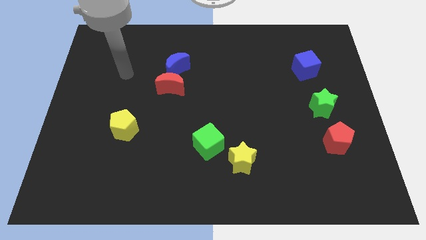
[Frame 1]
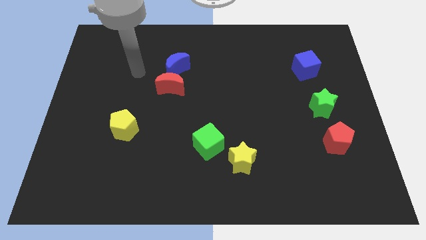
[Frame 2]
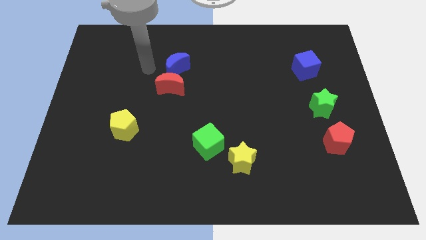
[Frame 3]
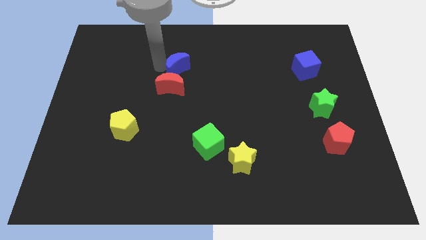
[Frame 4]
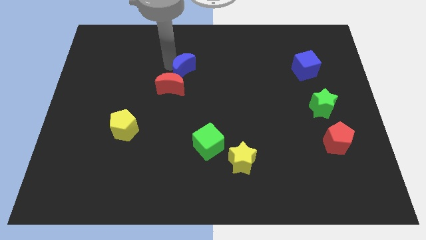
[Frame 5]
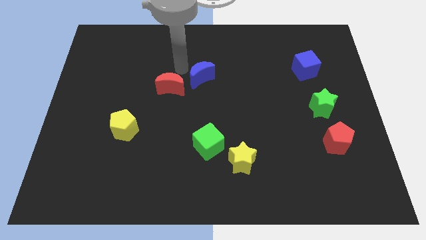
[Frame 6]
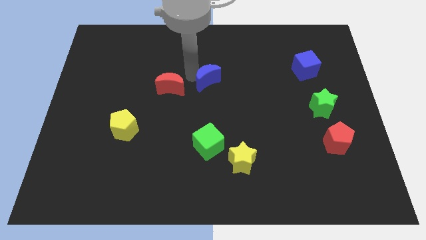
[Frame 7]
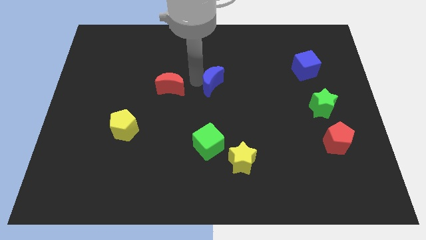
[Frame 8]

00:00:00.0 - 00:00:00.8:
separate the red moon from the blue moon

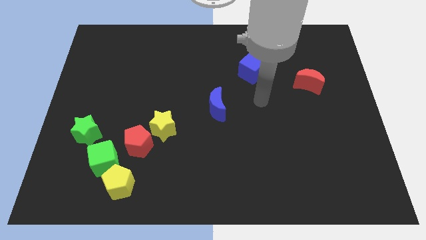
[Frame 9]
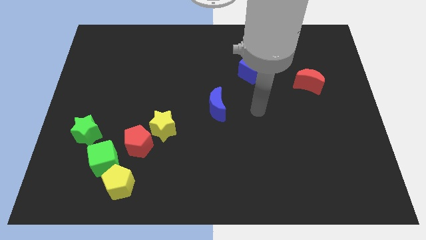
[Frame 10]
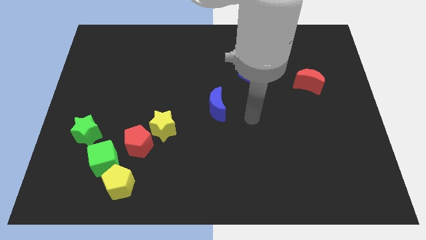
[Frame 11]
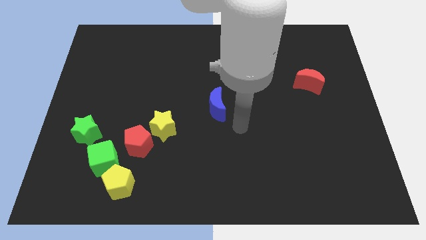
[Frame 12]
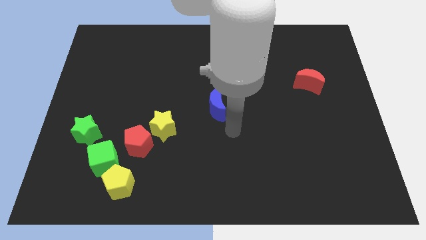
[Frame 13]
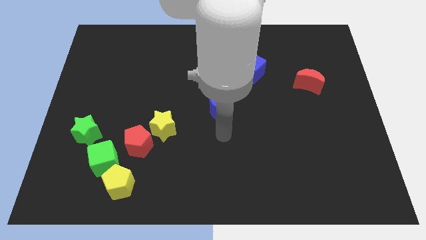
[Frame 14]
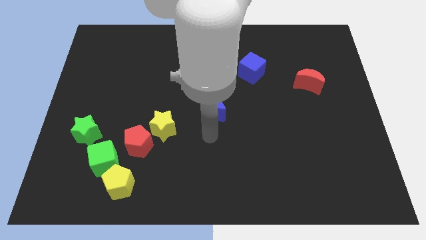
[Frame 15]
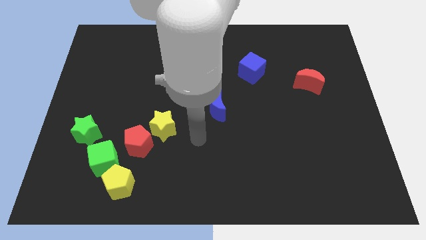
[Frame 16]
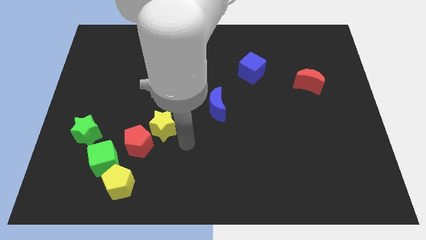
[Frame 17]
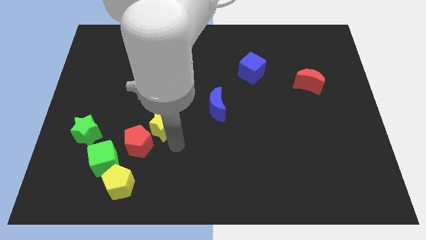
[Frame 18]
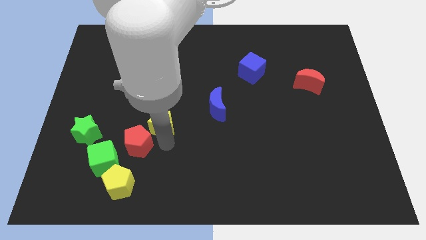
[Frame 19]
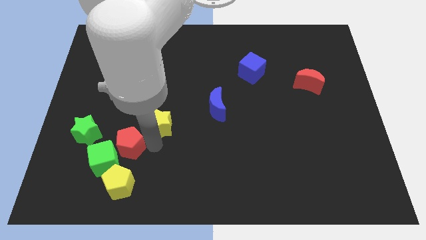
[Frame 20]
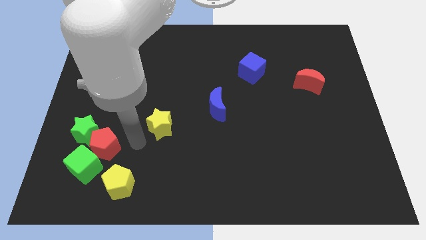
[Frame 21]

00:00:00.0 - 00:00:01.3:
pull the yellow star apart from the red pentagon

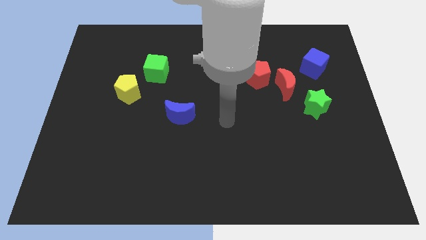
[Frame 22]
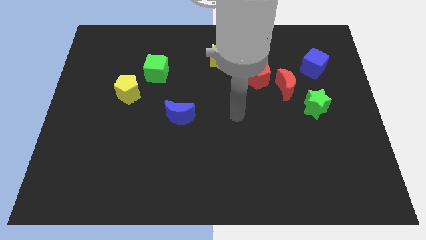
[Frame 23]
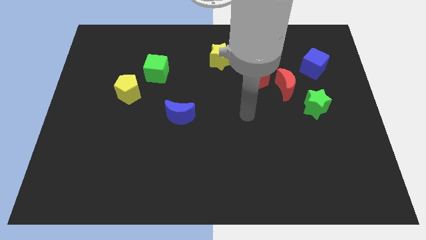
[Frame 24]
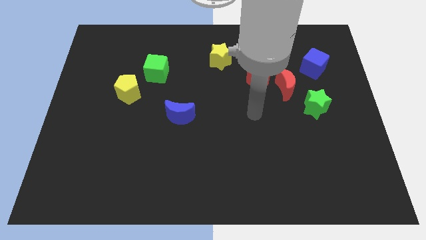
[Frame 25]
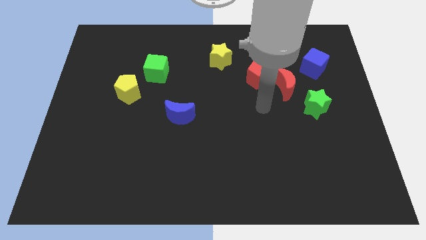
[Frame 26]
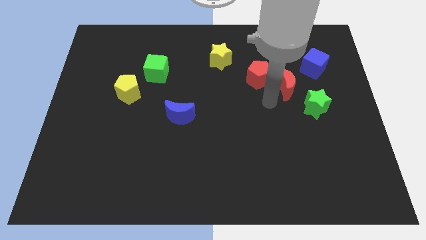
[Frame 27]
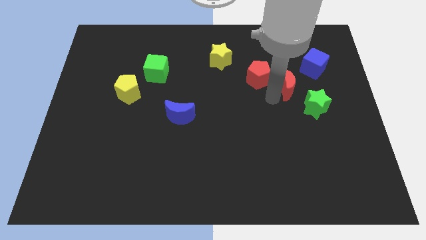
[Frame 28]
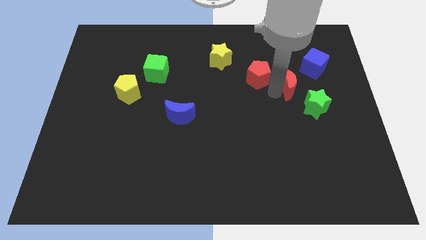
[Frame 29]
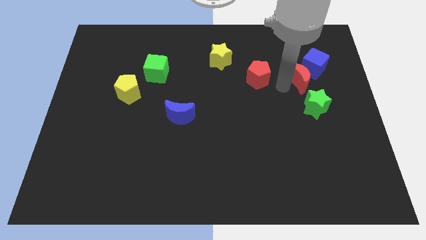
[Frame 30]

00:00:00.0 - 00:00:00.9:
pull the red pentagon apart from the red moon

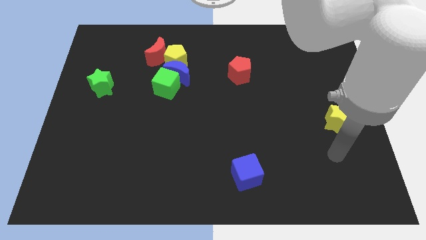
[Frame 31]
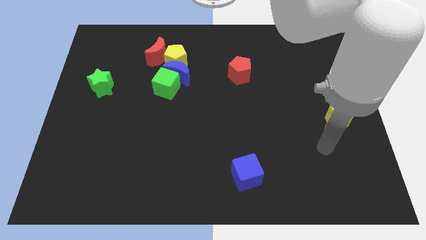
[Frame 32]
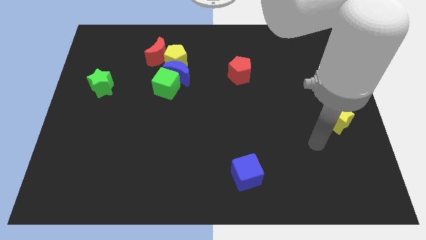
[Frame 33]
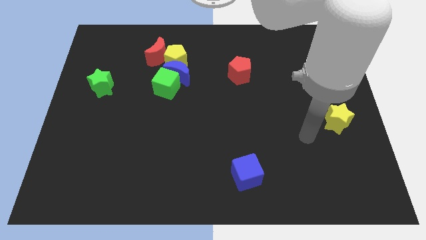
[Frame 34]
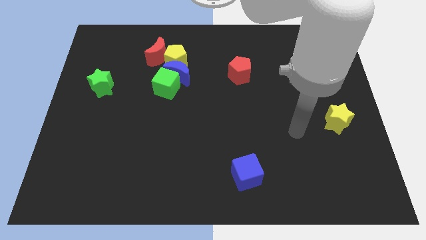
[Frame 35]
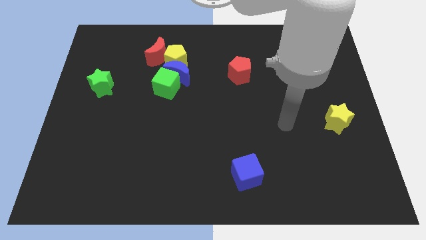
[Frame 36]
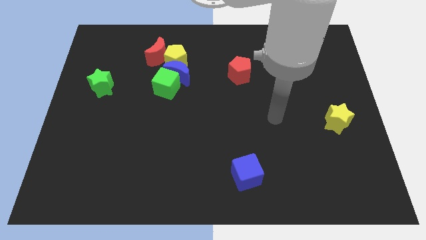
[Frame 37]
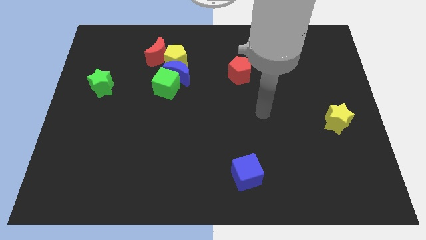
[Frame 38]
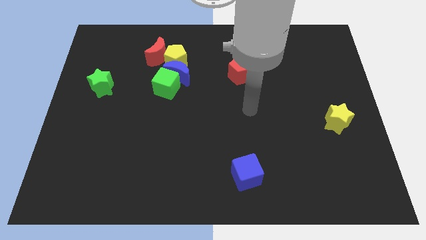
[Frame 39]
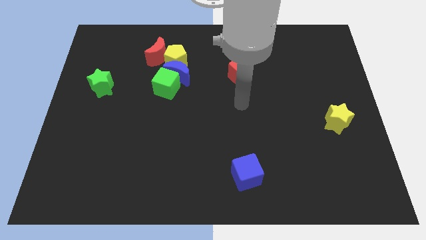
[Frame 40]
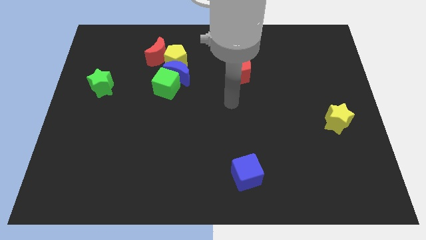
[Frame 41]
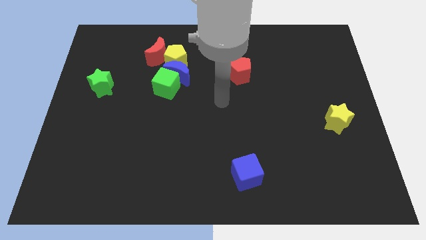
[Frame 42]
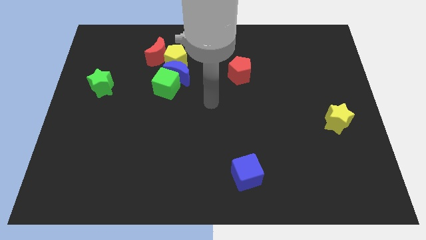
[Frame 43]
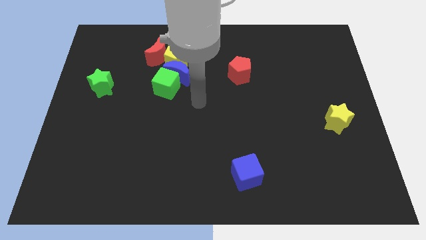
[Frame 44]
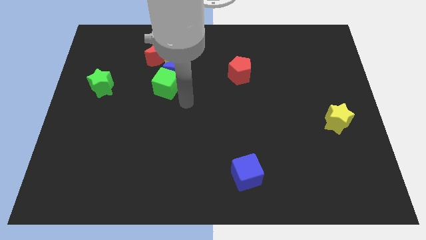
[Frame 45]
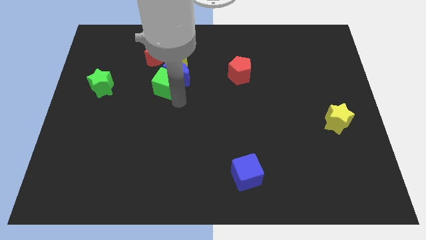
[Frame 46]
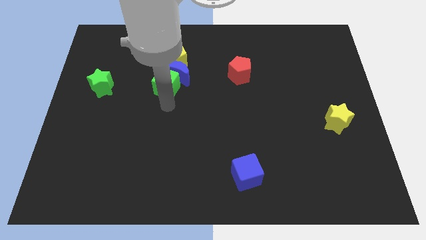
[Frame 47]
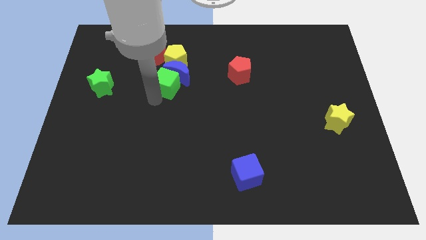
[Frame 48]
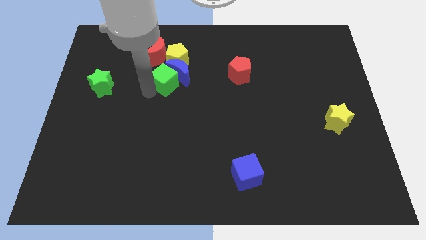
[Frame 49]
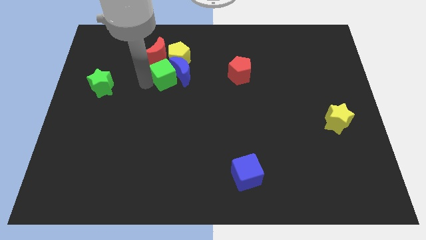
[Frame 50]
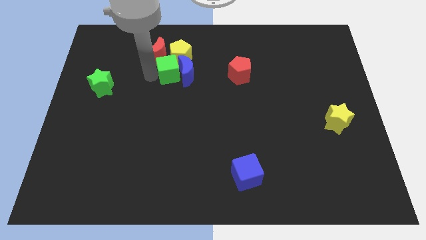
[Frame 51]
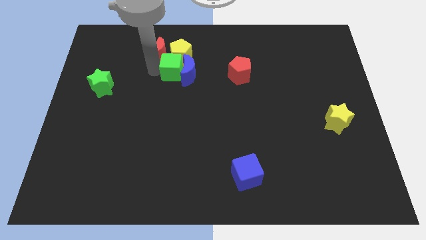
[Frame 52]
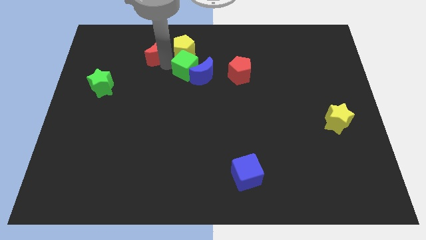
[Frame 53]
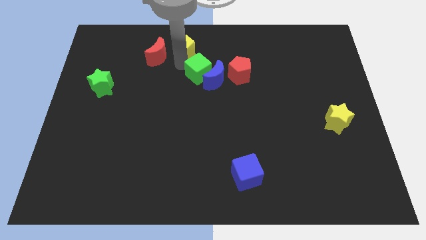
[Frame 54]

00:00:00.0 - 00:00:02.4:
move the blue moon away from the green cube, yellow pentagon, and red moon

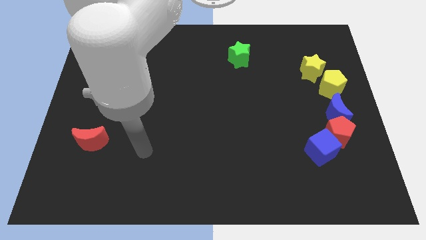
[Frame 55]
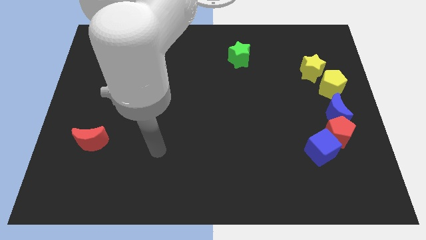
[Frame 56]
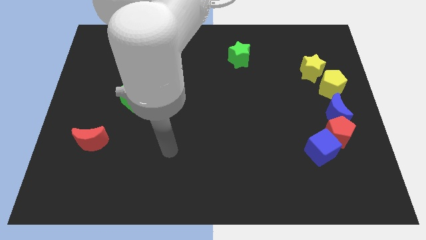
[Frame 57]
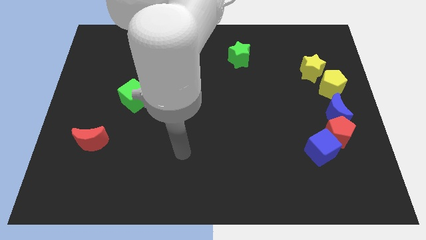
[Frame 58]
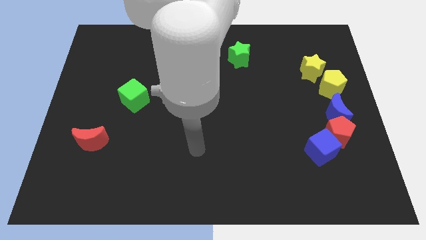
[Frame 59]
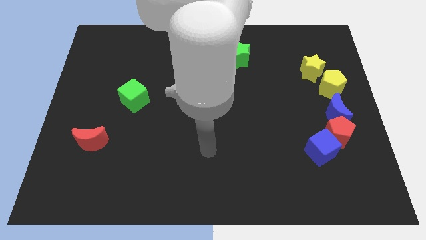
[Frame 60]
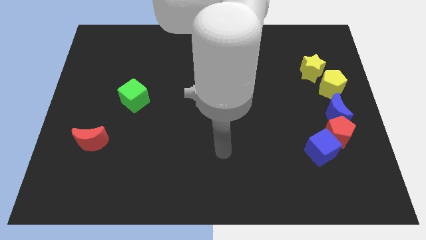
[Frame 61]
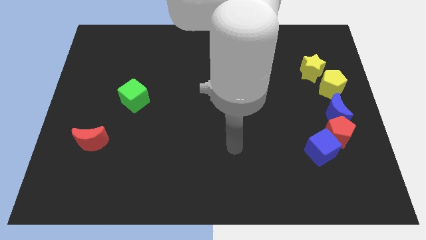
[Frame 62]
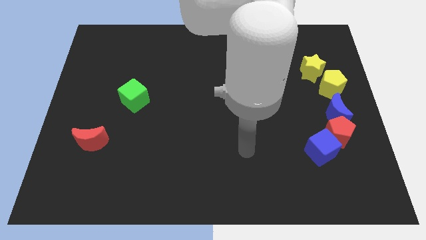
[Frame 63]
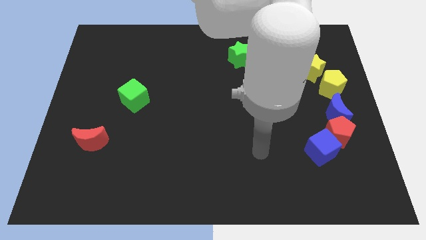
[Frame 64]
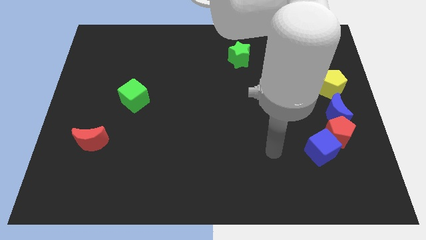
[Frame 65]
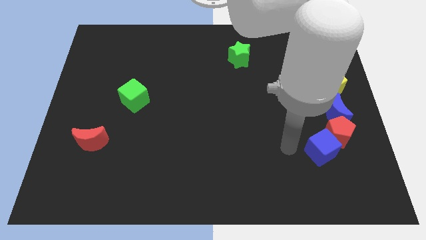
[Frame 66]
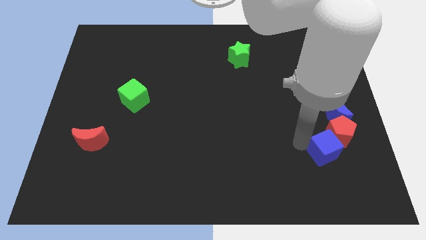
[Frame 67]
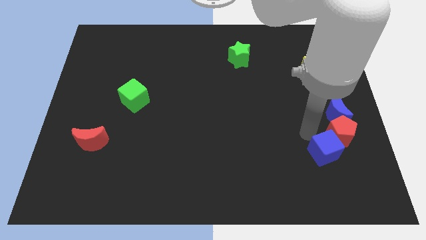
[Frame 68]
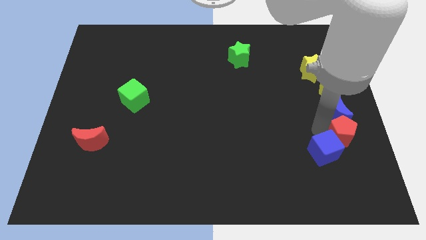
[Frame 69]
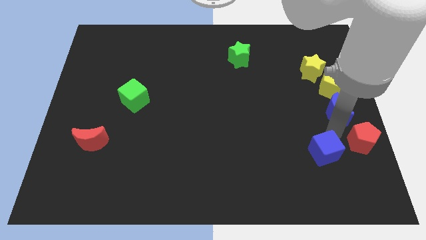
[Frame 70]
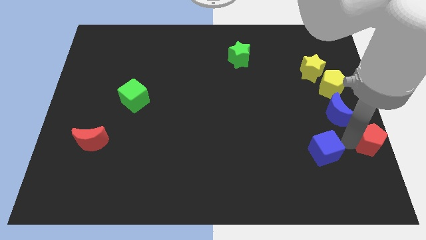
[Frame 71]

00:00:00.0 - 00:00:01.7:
separate the blue cube from the red pentagon

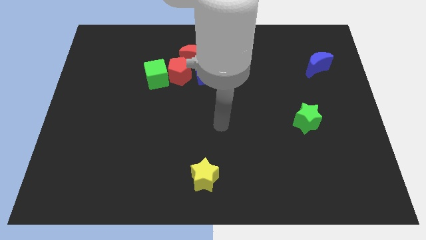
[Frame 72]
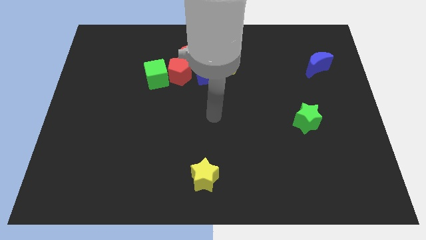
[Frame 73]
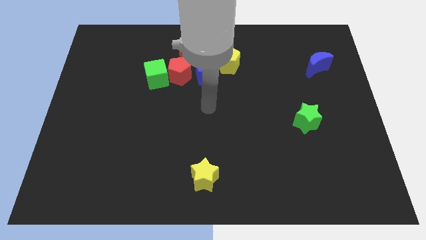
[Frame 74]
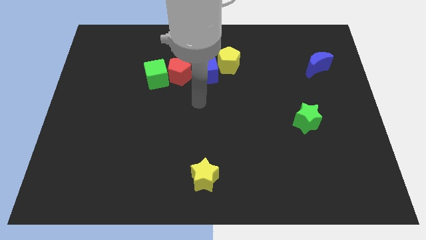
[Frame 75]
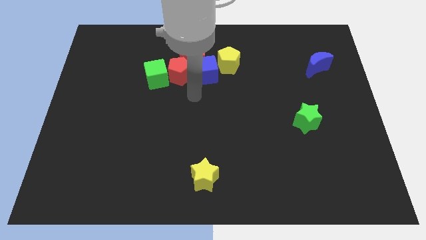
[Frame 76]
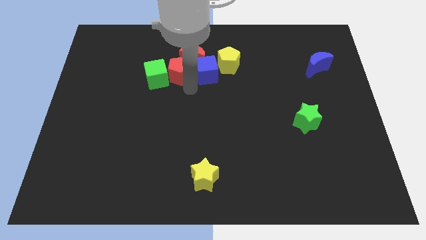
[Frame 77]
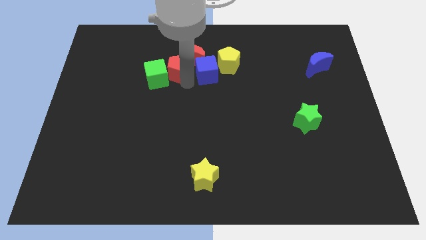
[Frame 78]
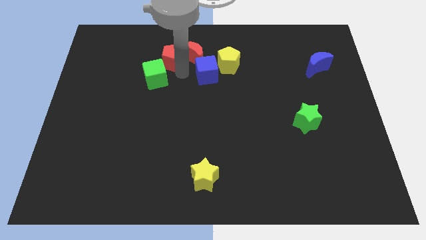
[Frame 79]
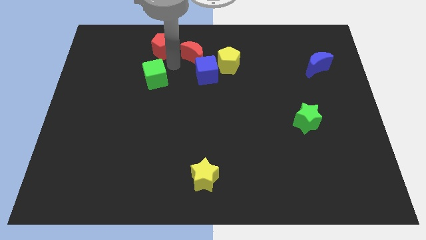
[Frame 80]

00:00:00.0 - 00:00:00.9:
pull the green cube apart from the red pentagon

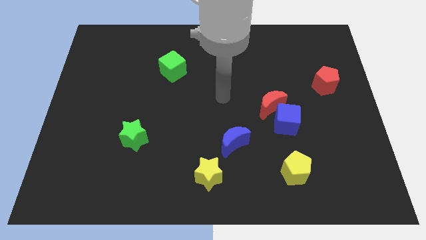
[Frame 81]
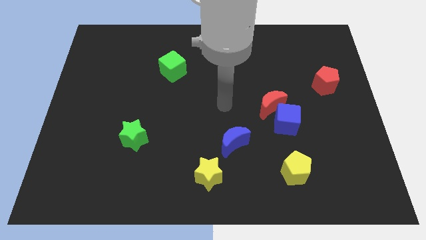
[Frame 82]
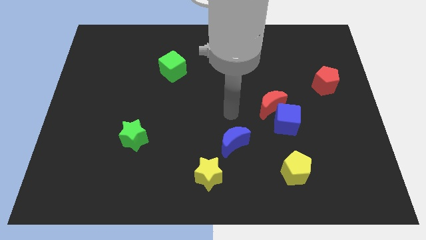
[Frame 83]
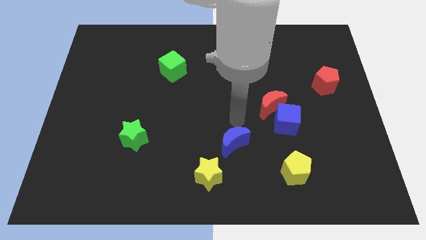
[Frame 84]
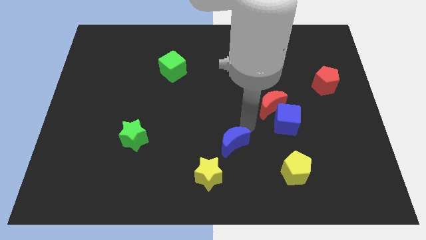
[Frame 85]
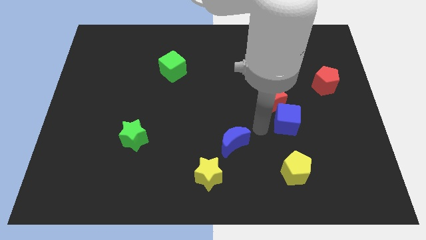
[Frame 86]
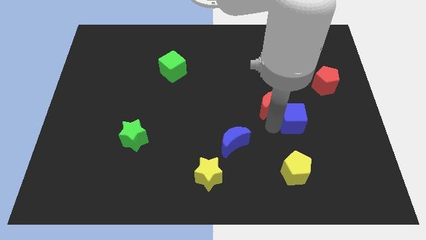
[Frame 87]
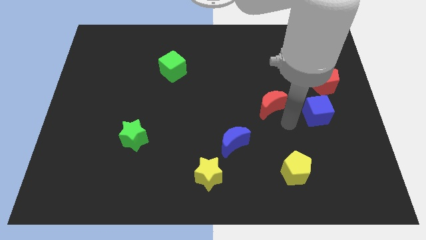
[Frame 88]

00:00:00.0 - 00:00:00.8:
pull the red moon apart from the blue cube

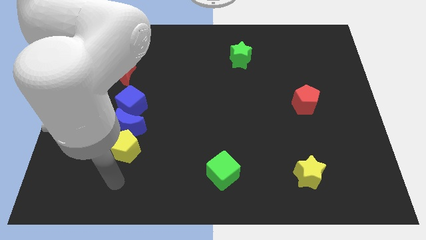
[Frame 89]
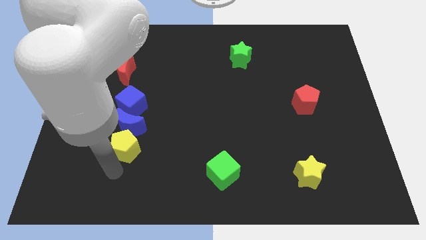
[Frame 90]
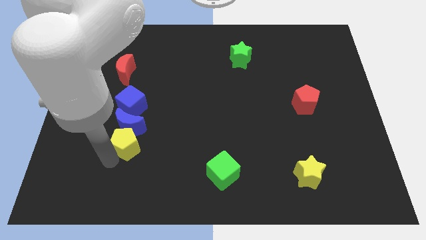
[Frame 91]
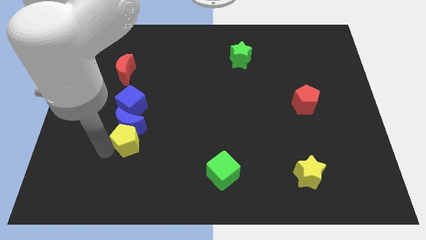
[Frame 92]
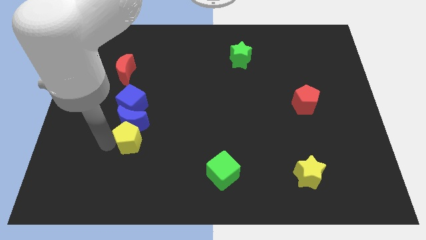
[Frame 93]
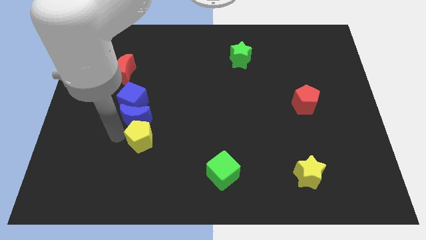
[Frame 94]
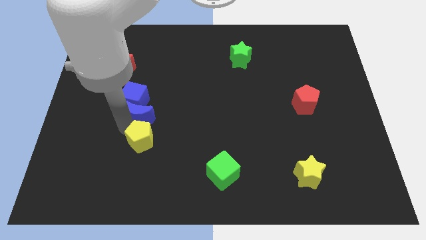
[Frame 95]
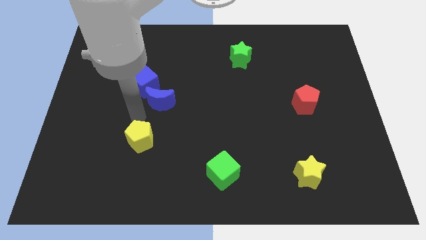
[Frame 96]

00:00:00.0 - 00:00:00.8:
pull the yellow pentagon apart from the blue moon
